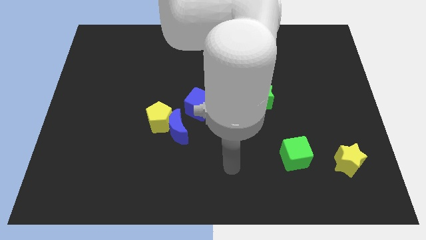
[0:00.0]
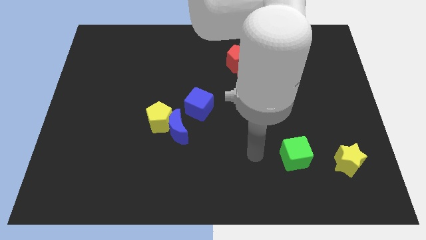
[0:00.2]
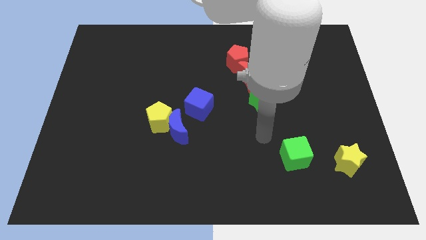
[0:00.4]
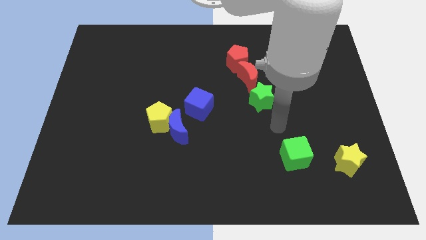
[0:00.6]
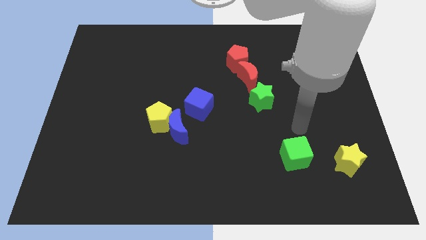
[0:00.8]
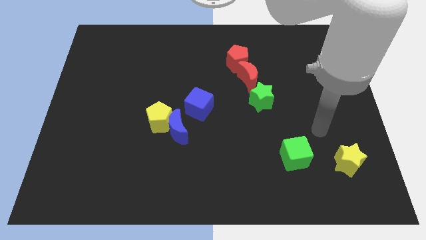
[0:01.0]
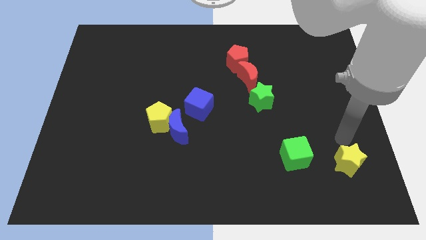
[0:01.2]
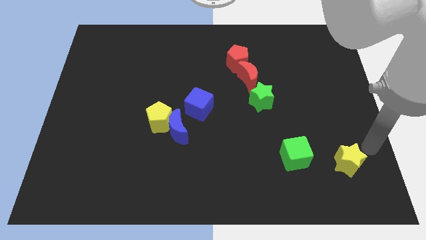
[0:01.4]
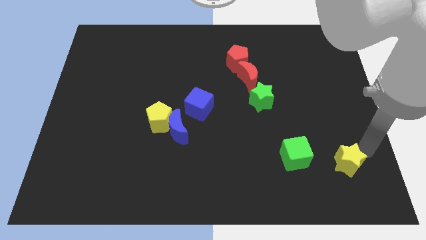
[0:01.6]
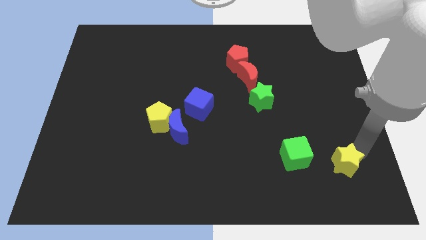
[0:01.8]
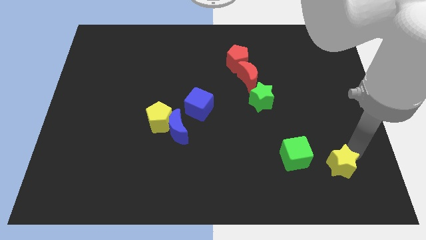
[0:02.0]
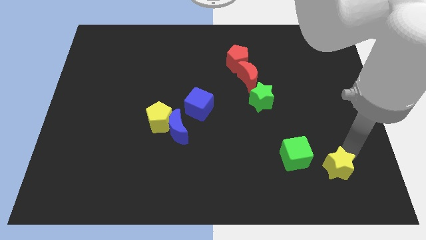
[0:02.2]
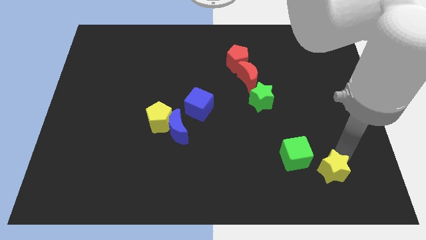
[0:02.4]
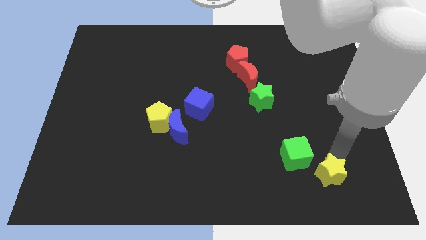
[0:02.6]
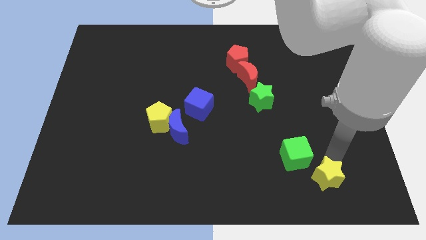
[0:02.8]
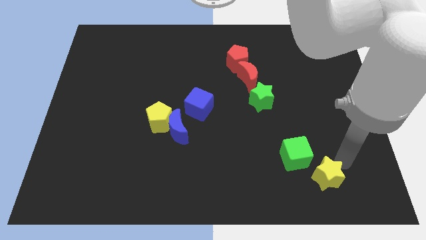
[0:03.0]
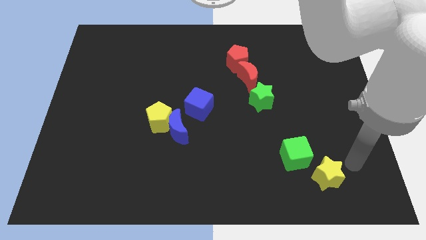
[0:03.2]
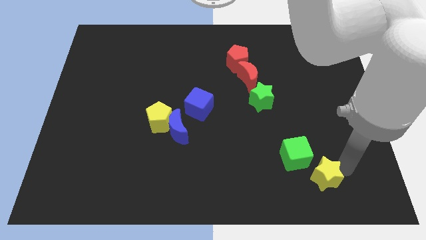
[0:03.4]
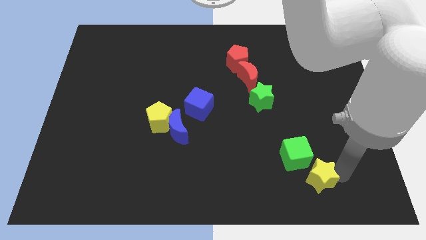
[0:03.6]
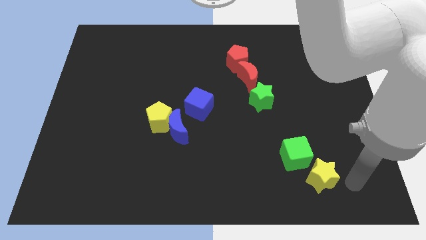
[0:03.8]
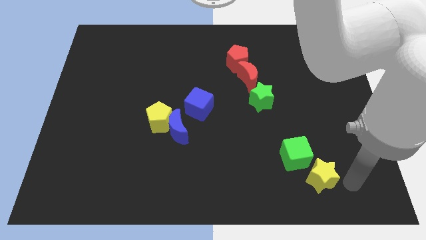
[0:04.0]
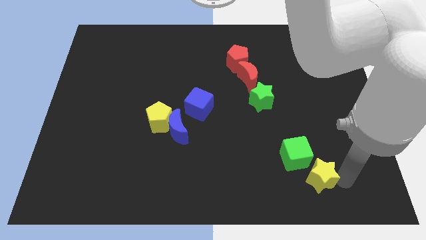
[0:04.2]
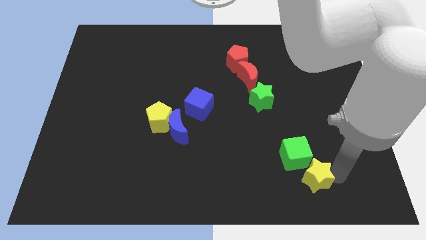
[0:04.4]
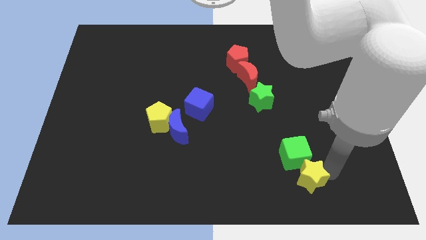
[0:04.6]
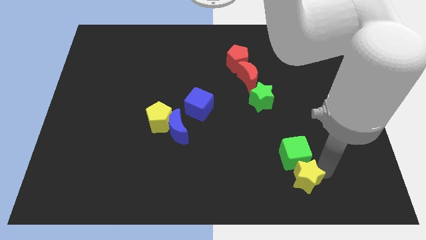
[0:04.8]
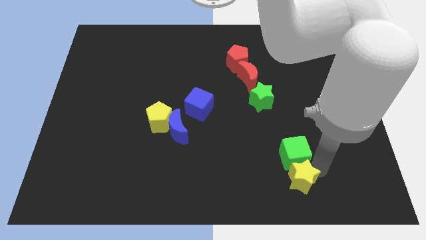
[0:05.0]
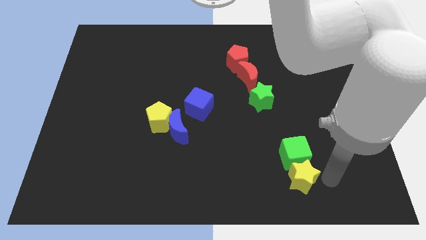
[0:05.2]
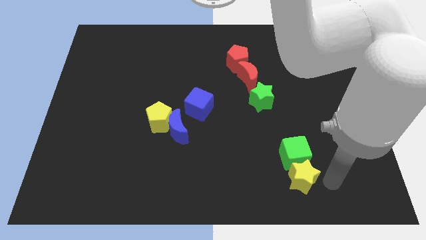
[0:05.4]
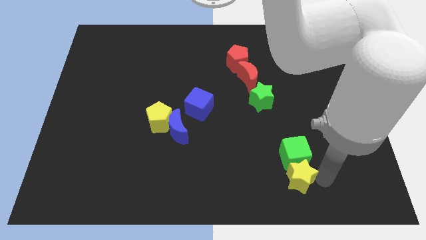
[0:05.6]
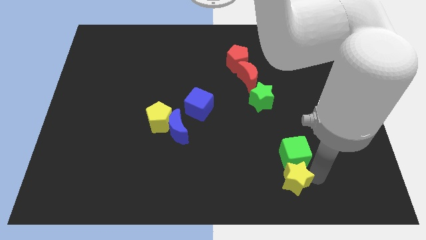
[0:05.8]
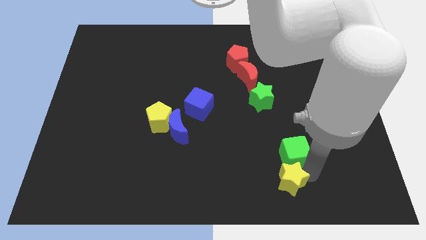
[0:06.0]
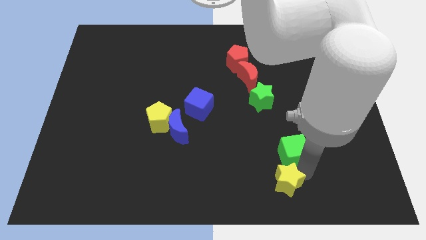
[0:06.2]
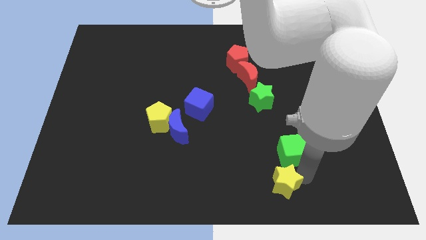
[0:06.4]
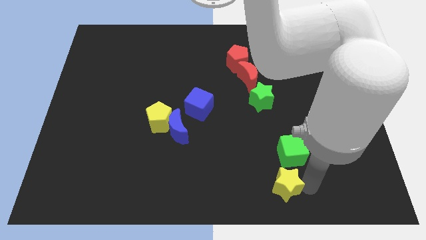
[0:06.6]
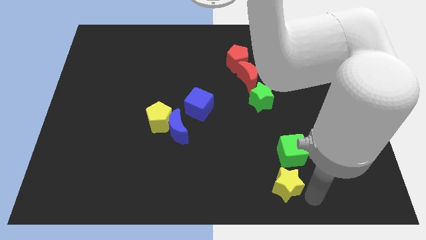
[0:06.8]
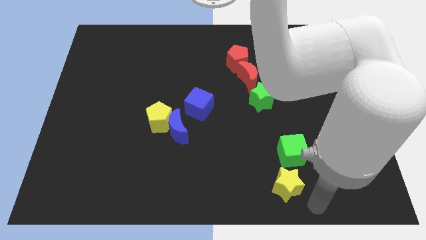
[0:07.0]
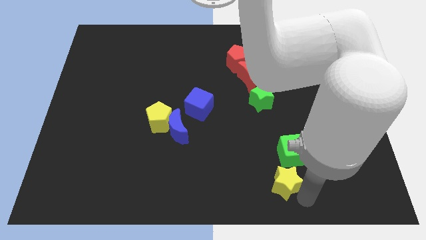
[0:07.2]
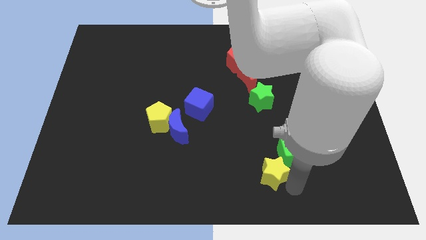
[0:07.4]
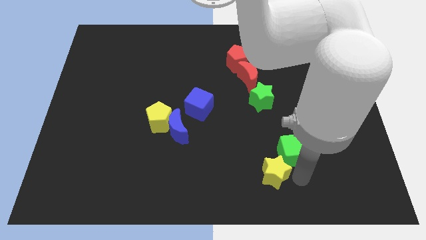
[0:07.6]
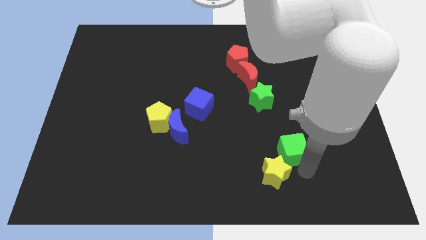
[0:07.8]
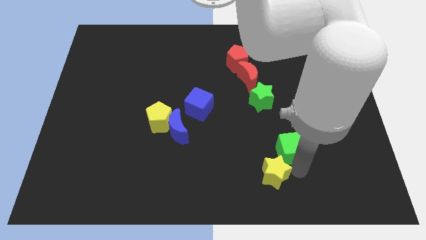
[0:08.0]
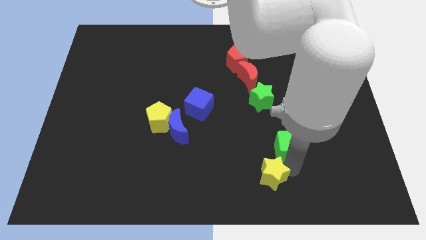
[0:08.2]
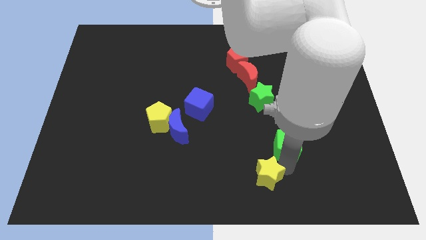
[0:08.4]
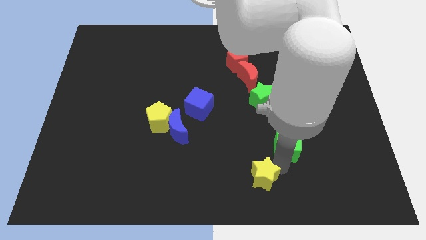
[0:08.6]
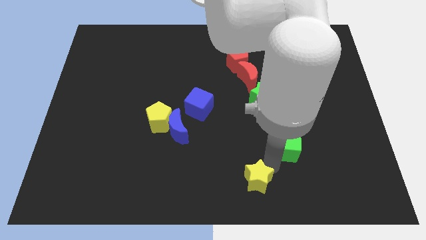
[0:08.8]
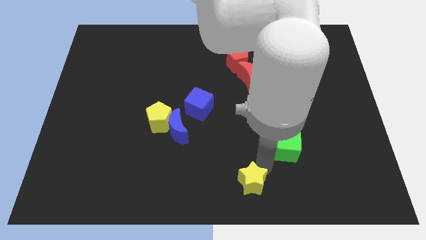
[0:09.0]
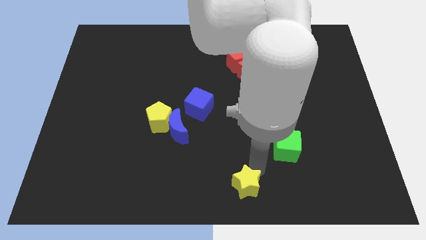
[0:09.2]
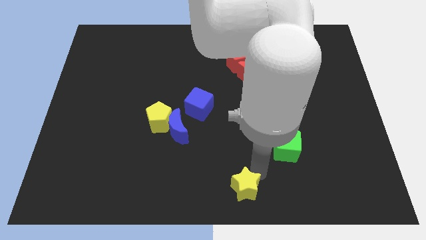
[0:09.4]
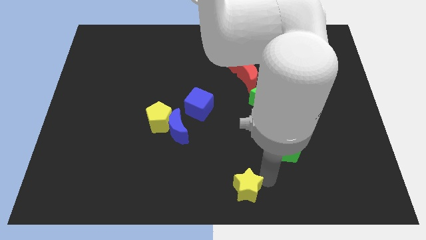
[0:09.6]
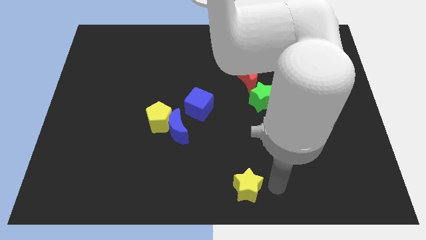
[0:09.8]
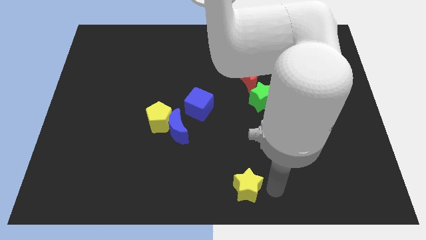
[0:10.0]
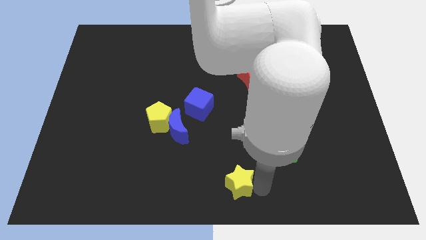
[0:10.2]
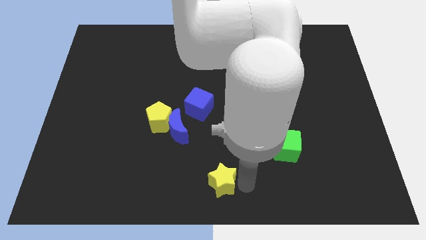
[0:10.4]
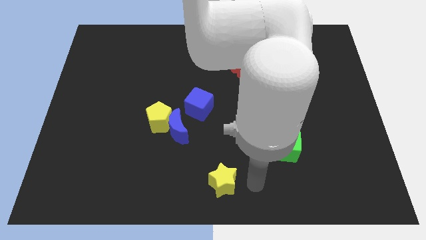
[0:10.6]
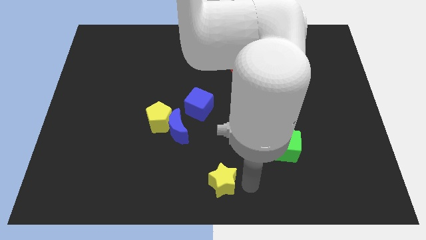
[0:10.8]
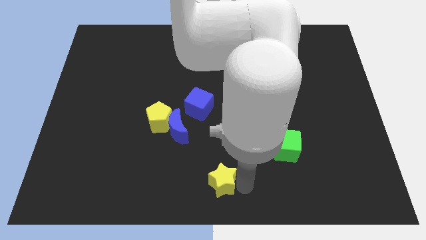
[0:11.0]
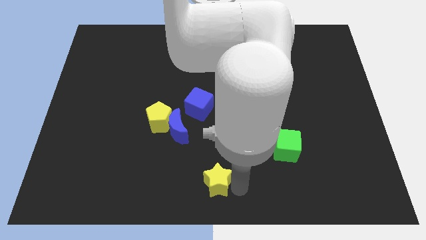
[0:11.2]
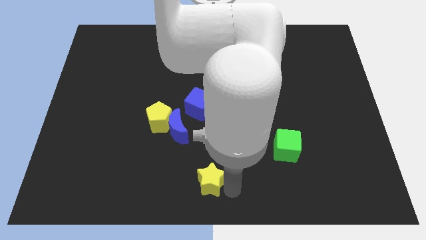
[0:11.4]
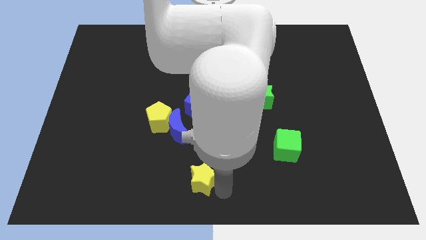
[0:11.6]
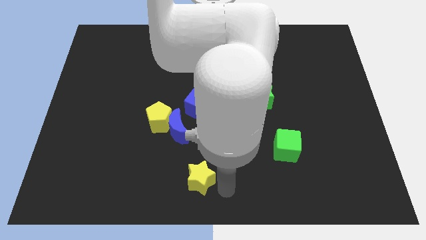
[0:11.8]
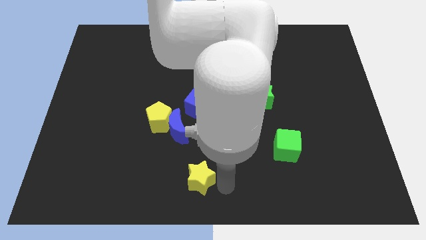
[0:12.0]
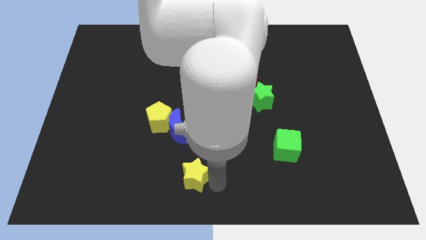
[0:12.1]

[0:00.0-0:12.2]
put the yellow star to the bottom of the blue moon
